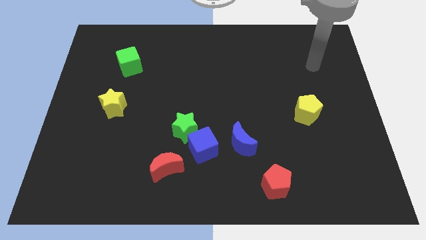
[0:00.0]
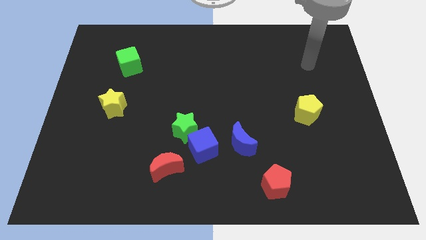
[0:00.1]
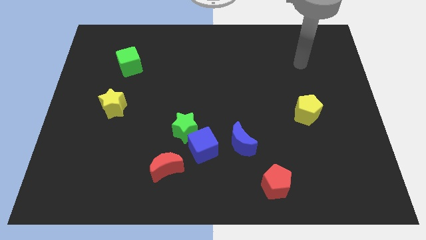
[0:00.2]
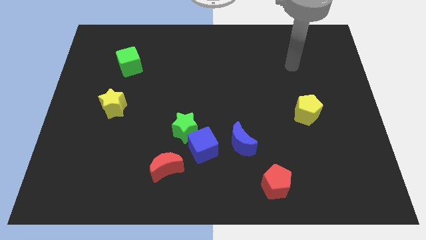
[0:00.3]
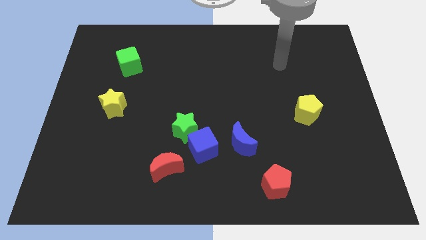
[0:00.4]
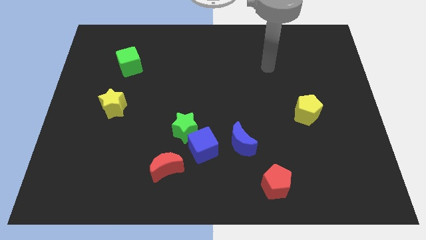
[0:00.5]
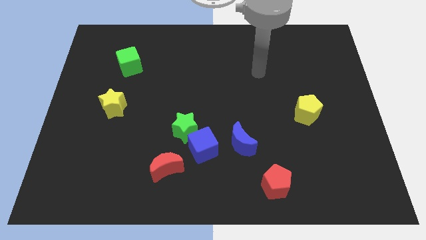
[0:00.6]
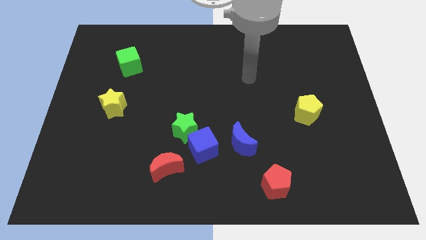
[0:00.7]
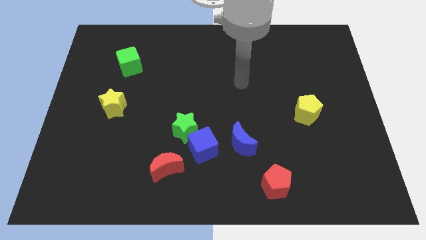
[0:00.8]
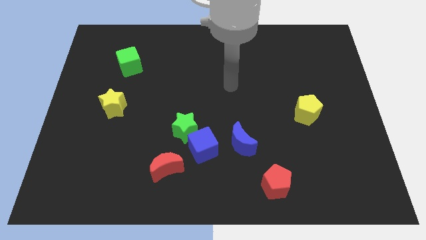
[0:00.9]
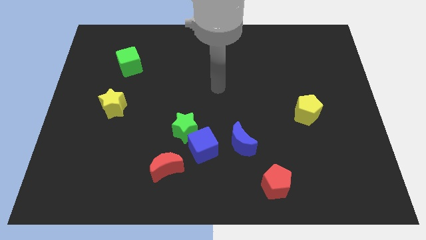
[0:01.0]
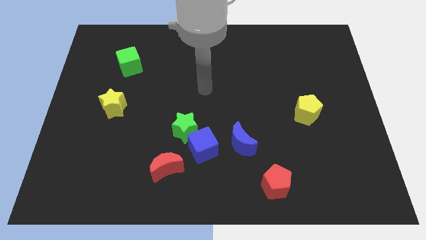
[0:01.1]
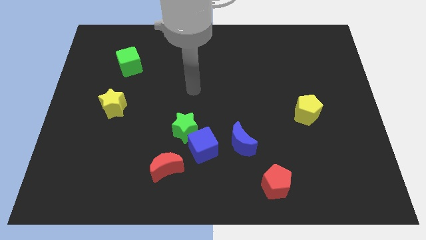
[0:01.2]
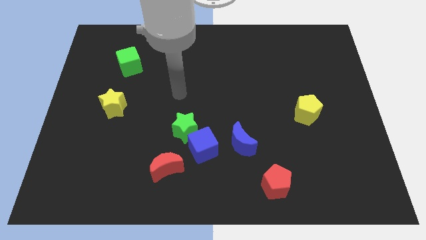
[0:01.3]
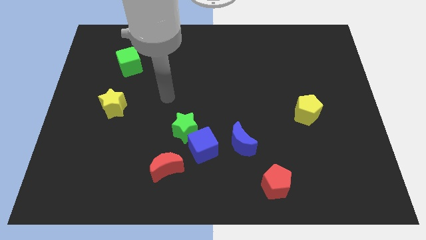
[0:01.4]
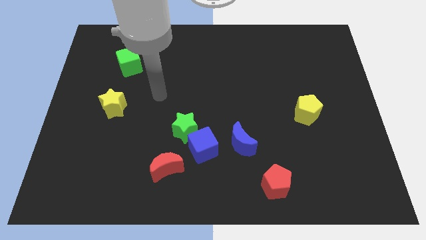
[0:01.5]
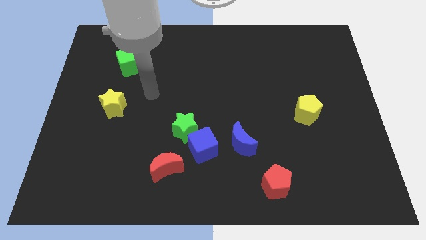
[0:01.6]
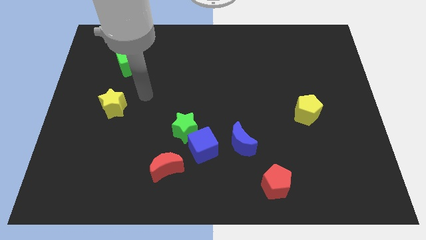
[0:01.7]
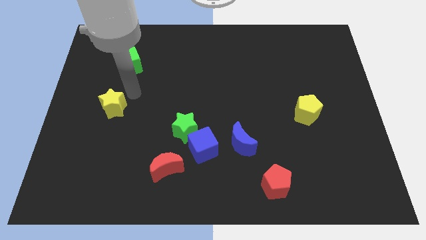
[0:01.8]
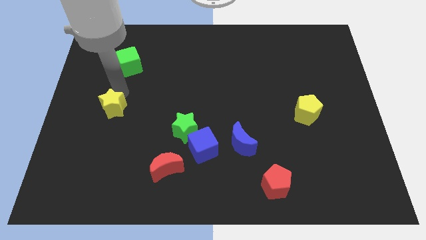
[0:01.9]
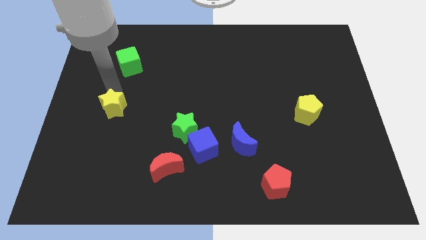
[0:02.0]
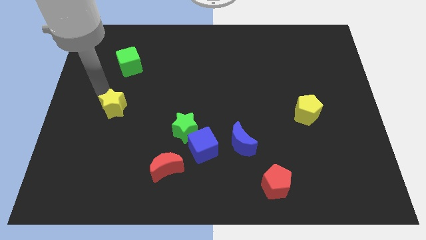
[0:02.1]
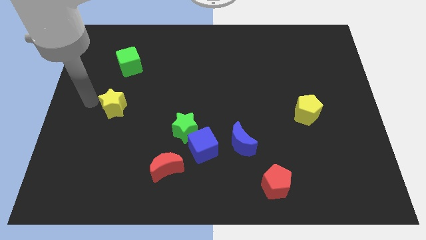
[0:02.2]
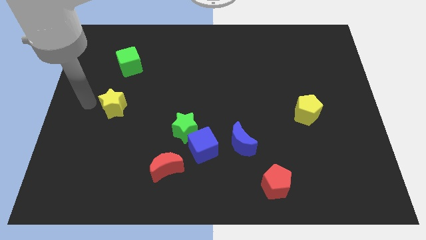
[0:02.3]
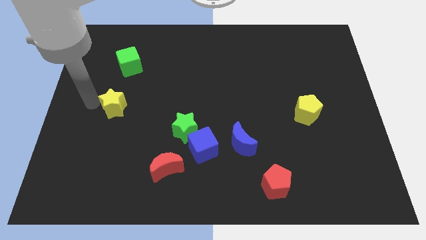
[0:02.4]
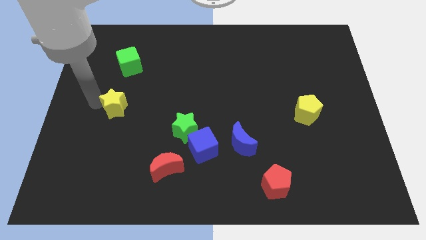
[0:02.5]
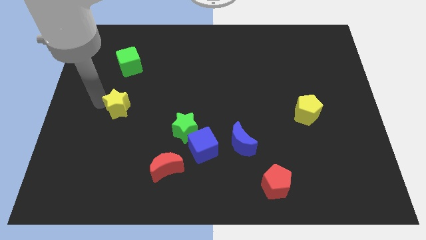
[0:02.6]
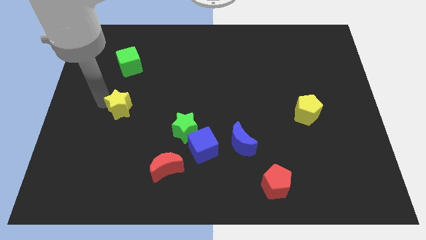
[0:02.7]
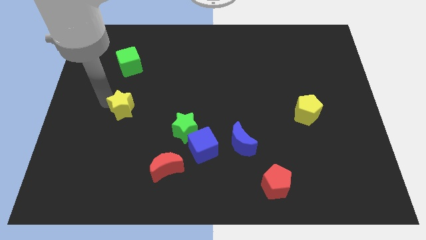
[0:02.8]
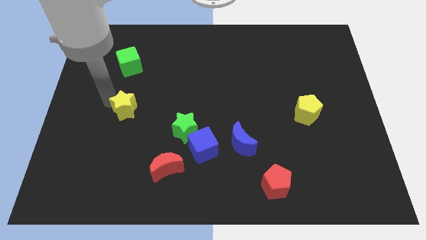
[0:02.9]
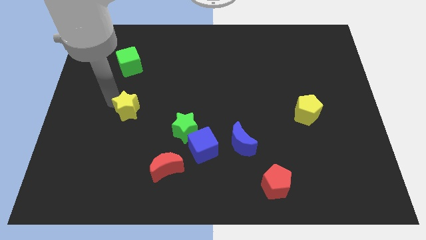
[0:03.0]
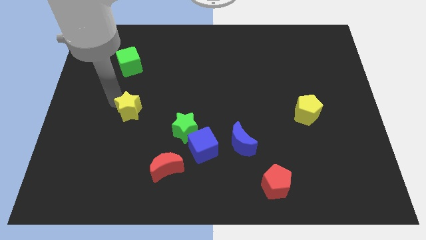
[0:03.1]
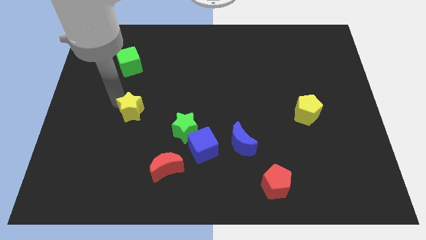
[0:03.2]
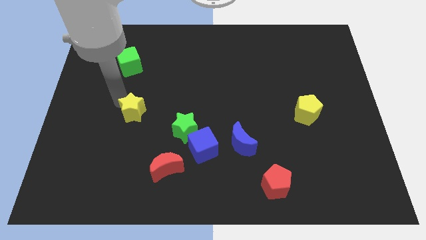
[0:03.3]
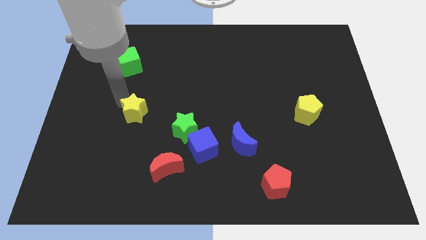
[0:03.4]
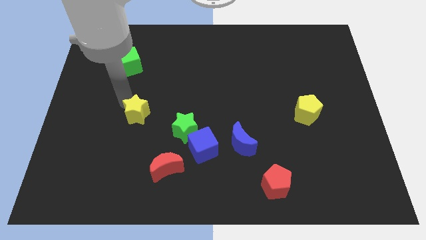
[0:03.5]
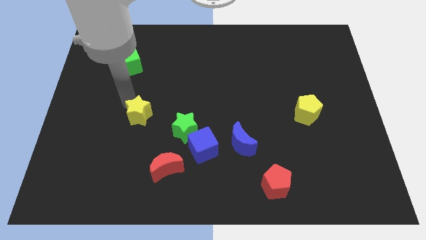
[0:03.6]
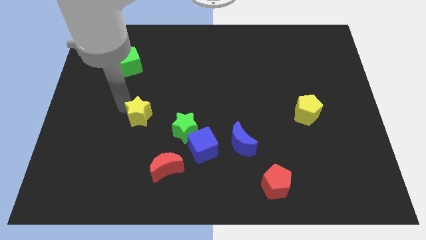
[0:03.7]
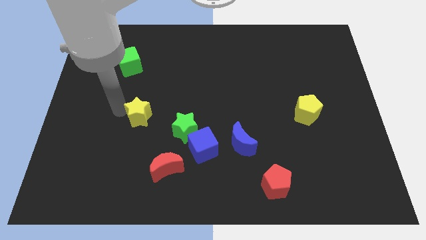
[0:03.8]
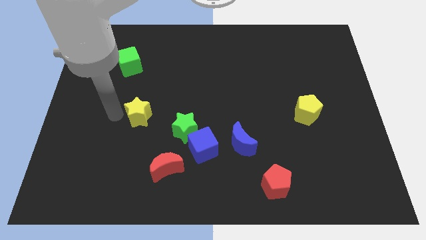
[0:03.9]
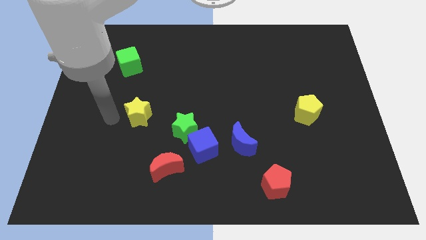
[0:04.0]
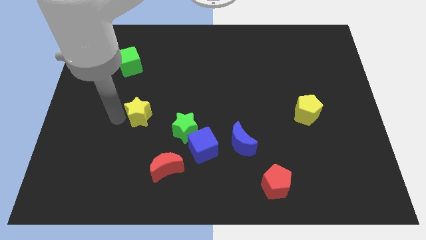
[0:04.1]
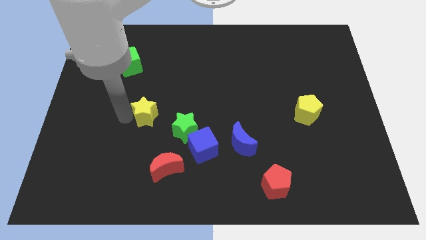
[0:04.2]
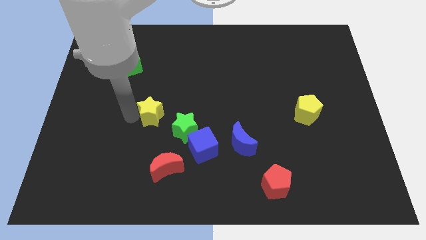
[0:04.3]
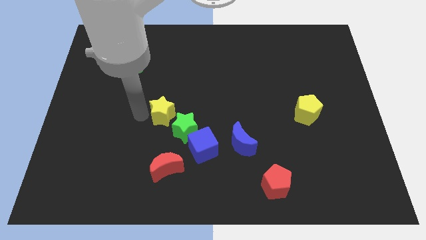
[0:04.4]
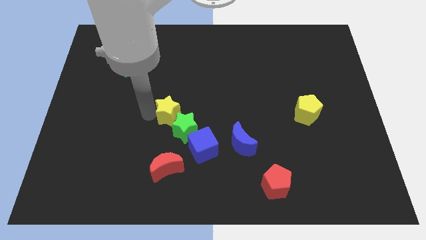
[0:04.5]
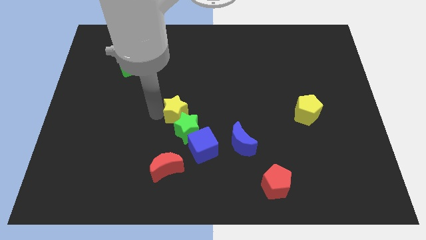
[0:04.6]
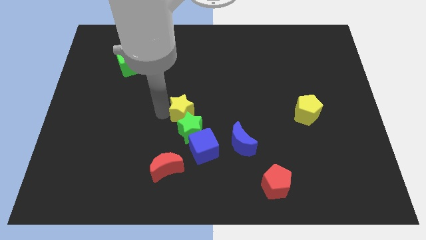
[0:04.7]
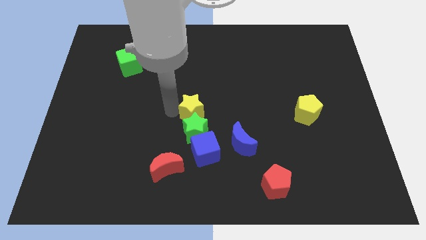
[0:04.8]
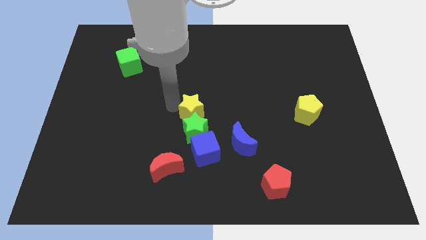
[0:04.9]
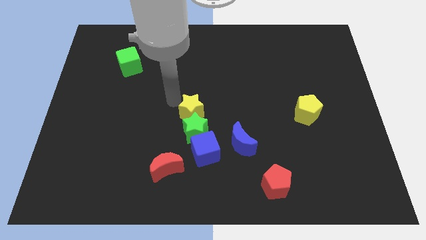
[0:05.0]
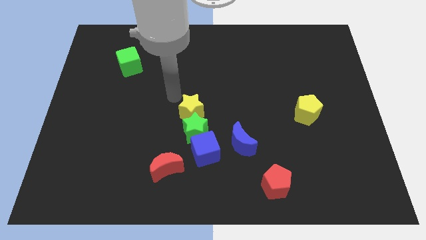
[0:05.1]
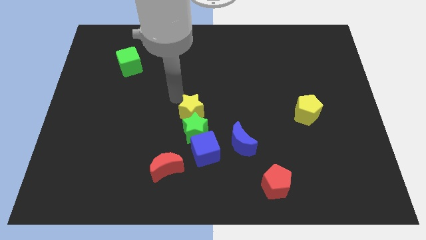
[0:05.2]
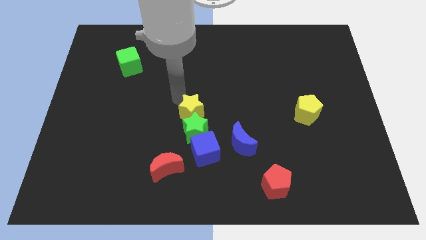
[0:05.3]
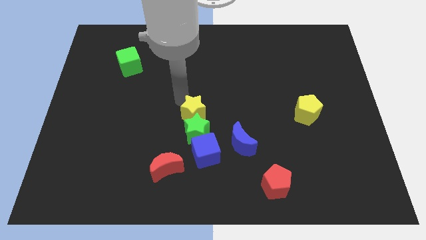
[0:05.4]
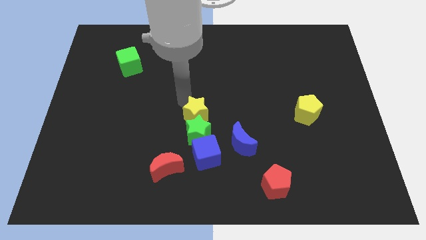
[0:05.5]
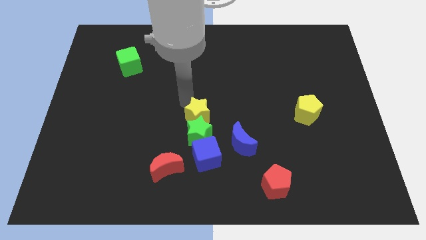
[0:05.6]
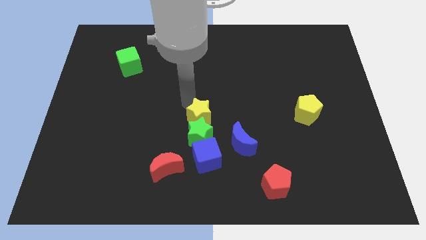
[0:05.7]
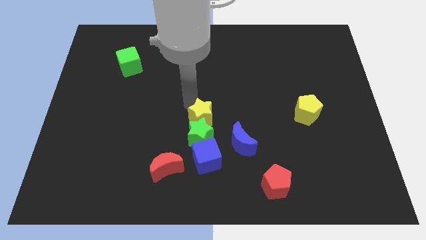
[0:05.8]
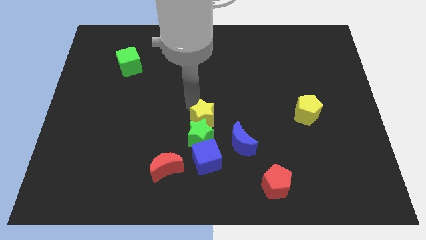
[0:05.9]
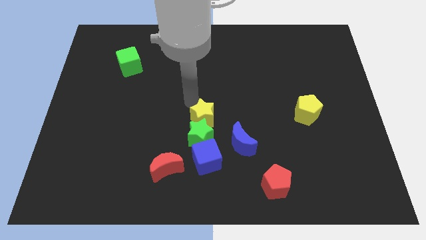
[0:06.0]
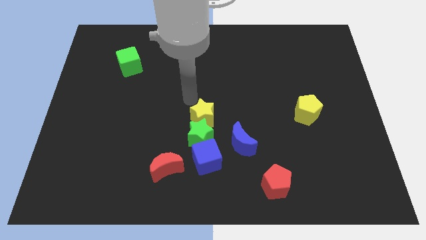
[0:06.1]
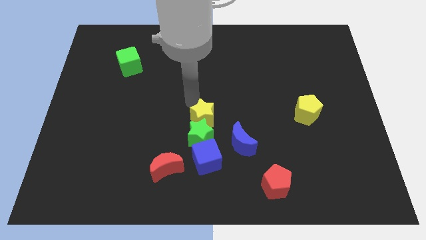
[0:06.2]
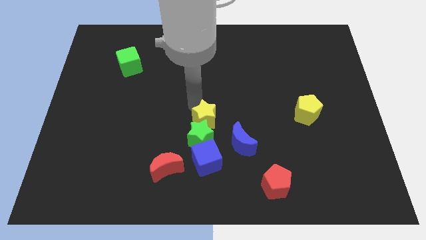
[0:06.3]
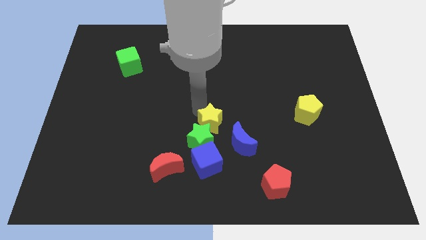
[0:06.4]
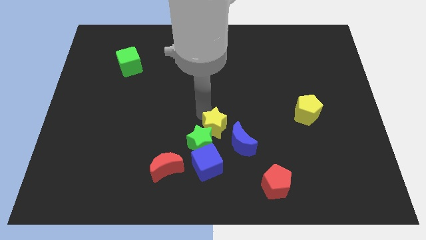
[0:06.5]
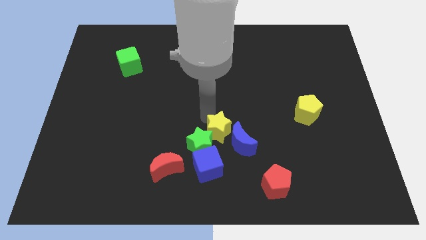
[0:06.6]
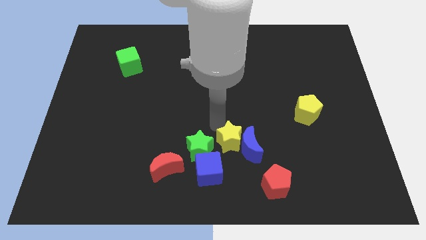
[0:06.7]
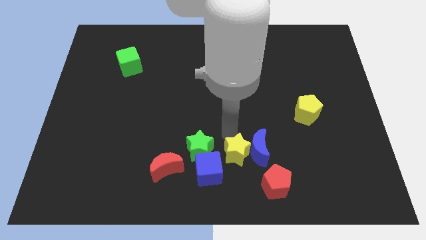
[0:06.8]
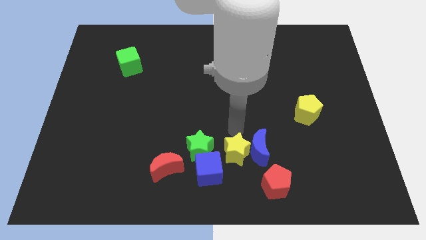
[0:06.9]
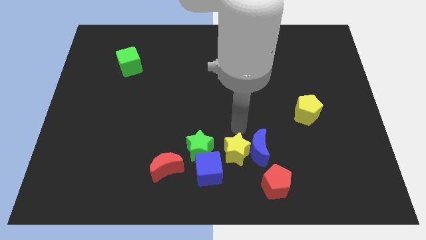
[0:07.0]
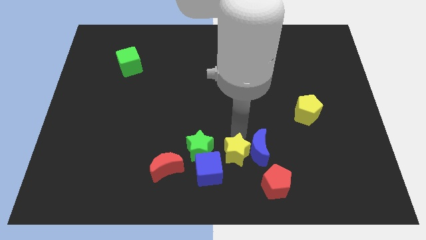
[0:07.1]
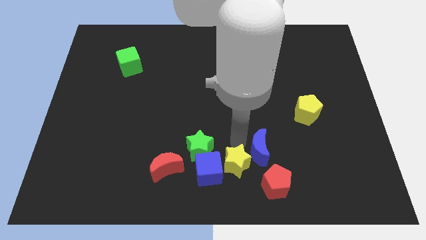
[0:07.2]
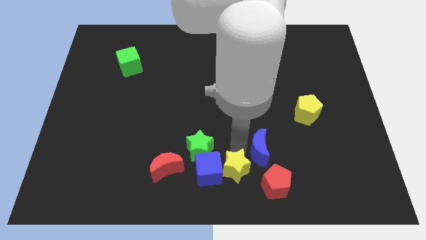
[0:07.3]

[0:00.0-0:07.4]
move the yellow star to the bottom right of the blue cube
